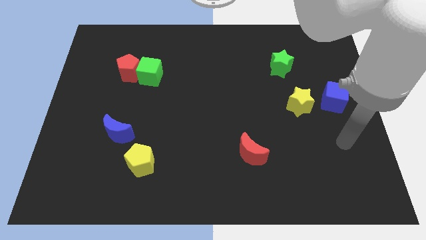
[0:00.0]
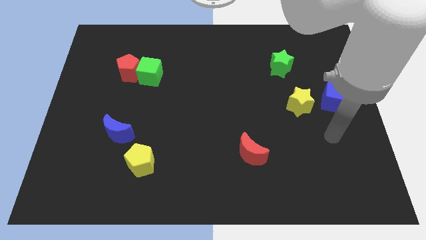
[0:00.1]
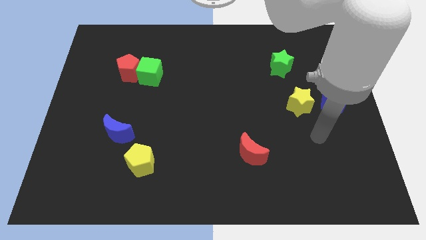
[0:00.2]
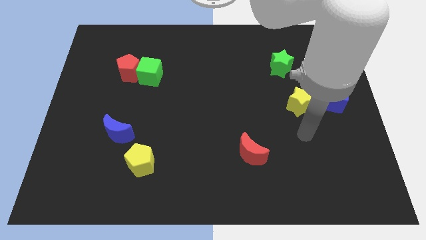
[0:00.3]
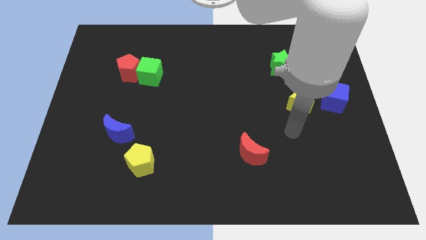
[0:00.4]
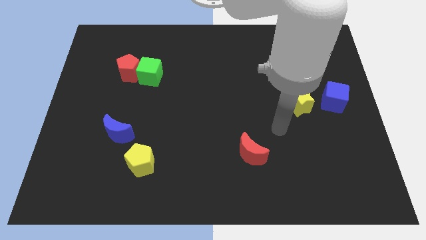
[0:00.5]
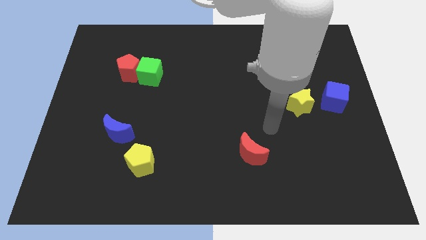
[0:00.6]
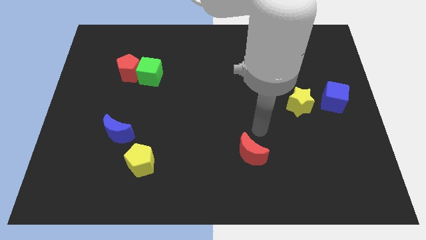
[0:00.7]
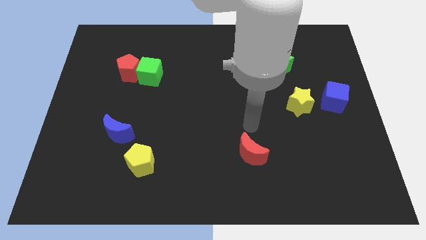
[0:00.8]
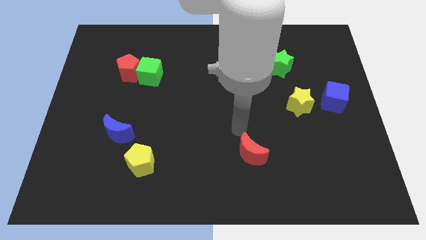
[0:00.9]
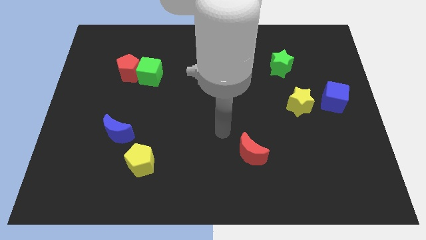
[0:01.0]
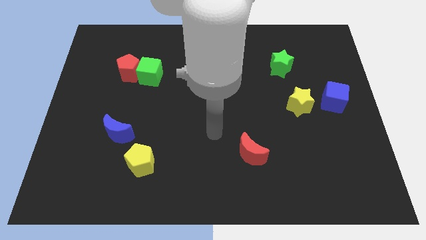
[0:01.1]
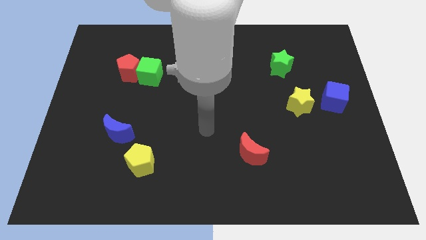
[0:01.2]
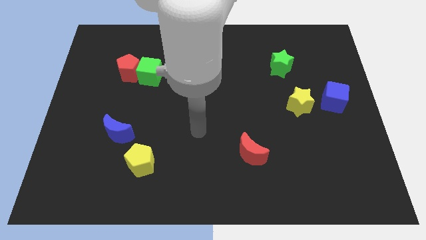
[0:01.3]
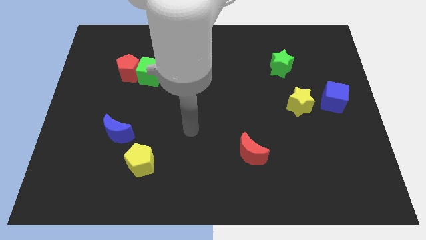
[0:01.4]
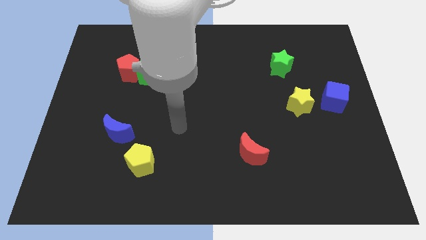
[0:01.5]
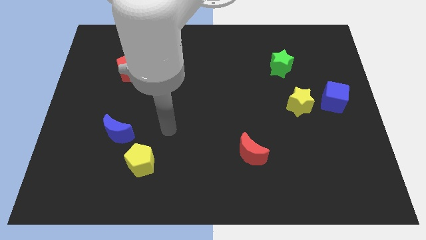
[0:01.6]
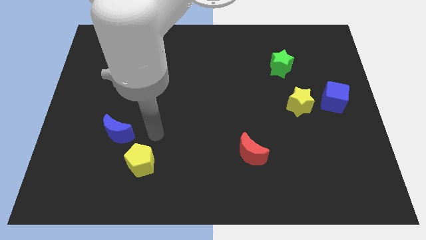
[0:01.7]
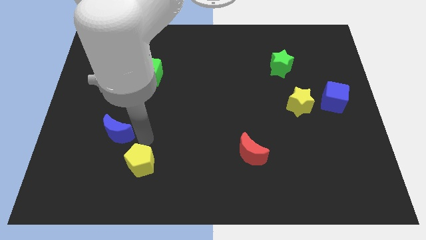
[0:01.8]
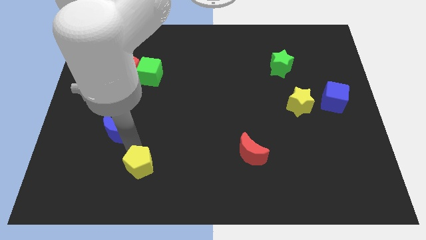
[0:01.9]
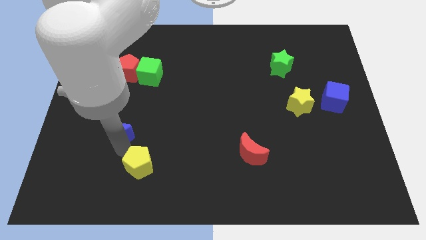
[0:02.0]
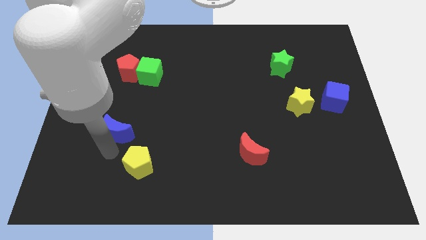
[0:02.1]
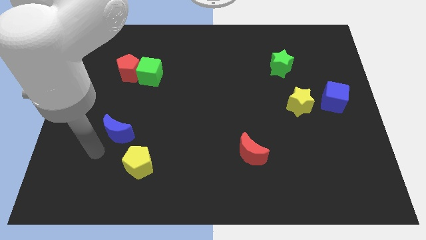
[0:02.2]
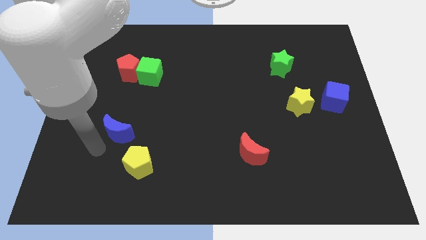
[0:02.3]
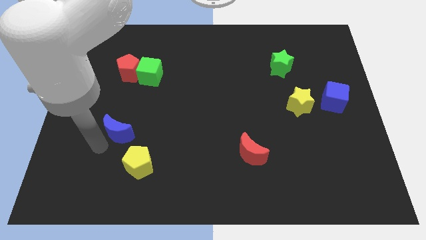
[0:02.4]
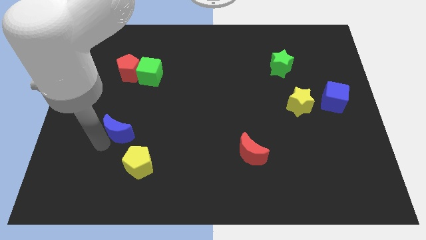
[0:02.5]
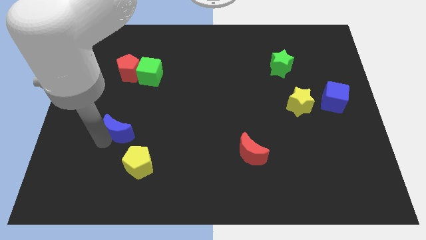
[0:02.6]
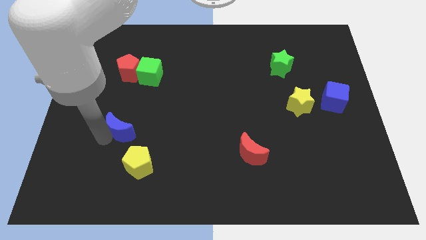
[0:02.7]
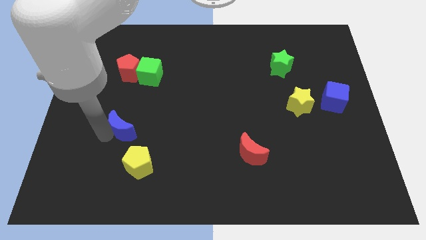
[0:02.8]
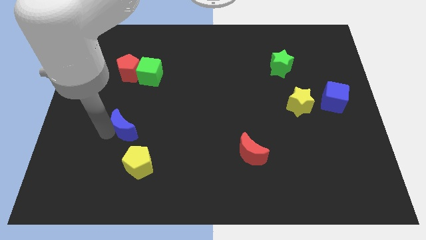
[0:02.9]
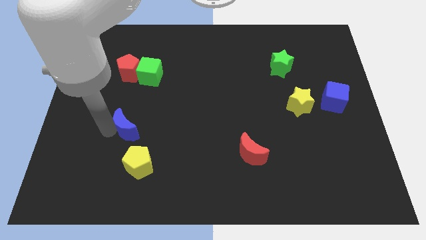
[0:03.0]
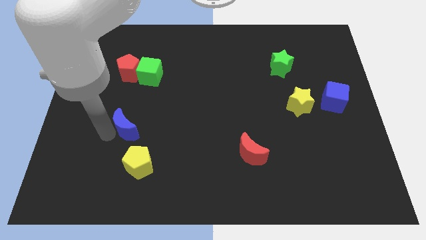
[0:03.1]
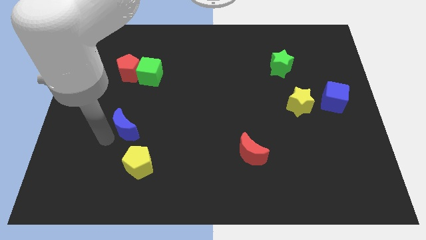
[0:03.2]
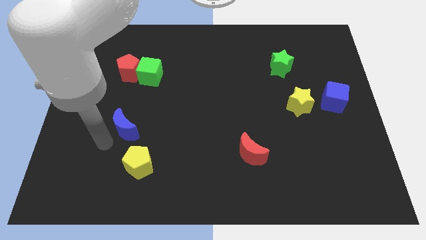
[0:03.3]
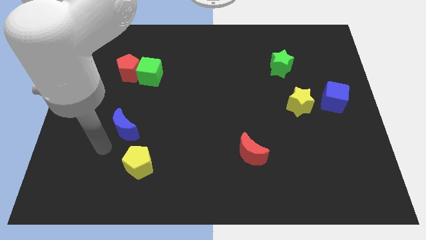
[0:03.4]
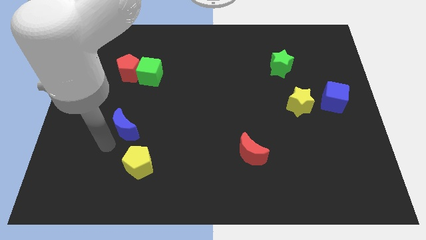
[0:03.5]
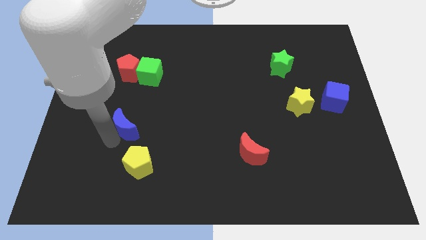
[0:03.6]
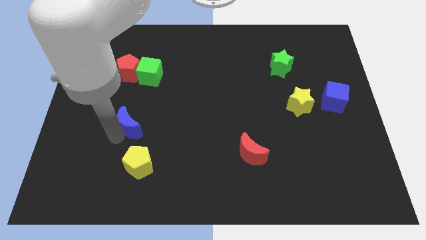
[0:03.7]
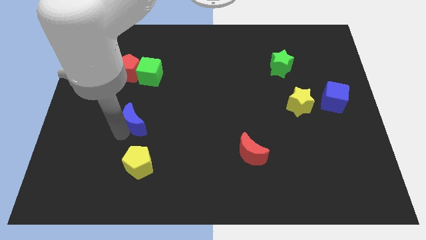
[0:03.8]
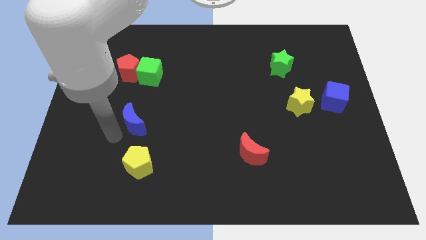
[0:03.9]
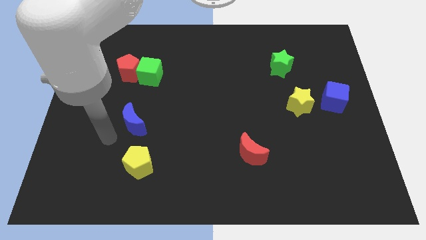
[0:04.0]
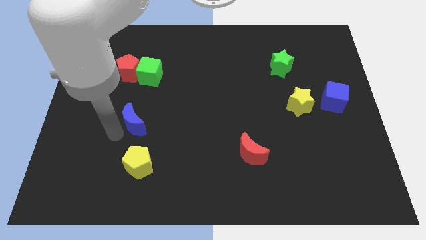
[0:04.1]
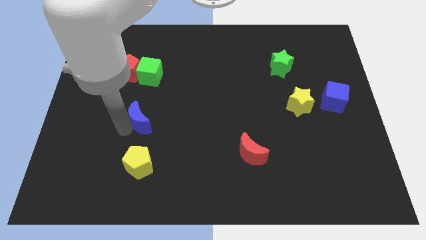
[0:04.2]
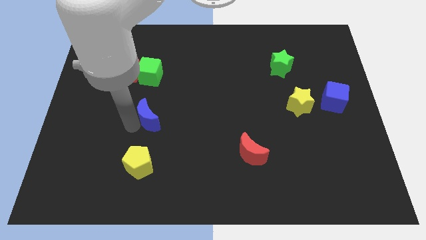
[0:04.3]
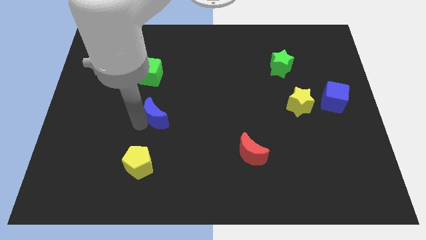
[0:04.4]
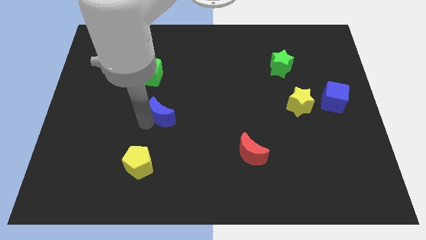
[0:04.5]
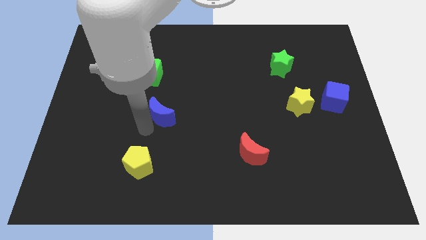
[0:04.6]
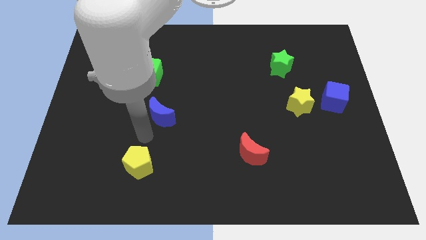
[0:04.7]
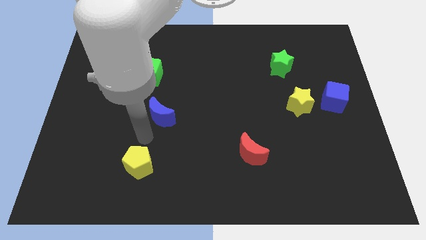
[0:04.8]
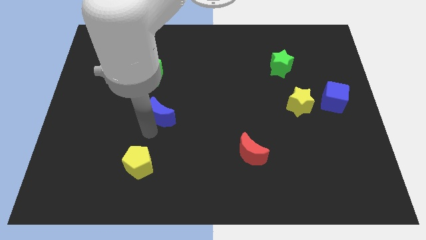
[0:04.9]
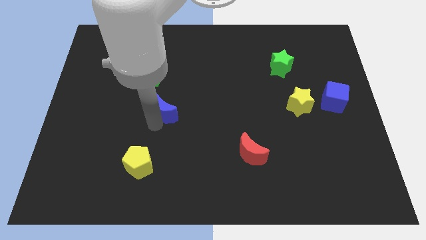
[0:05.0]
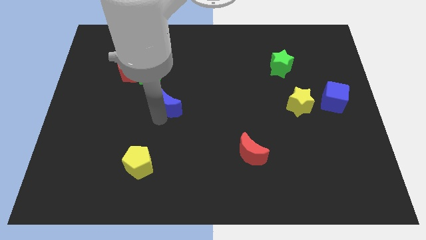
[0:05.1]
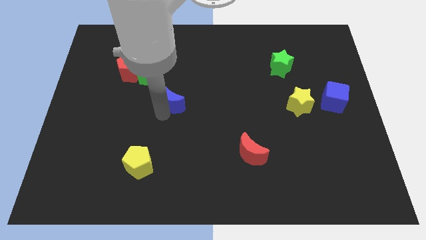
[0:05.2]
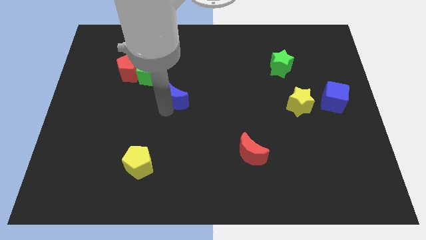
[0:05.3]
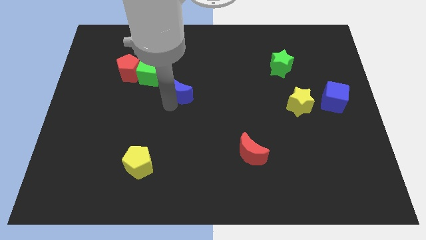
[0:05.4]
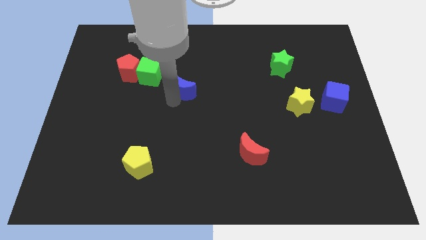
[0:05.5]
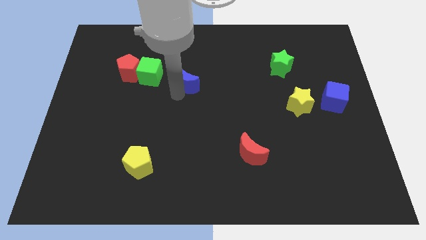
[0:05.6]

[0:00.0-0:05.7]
push the blue moon up and to the right diagonally

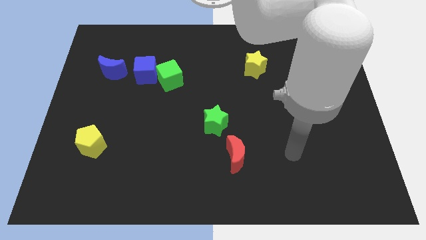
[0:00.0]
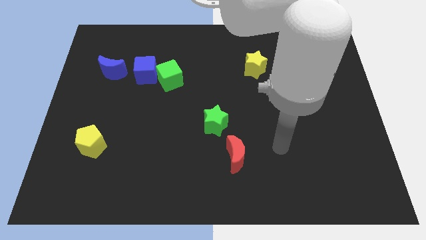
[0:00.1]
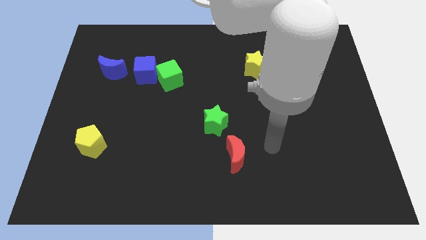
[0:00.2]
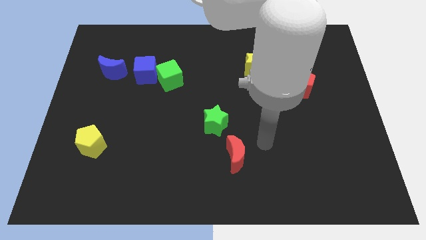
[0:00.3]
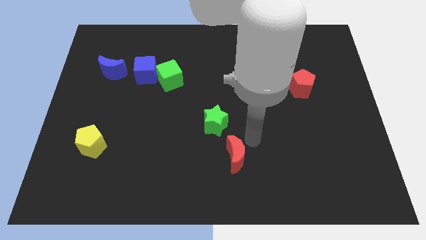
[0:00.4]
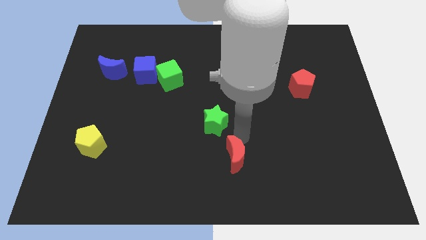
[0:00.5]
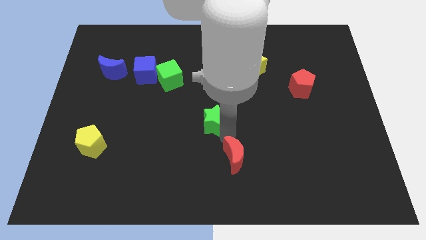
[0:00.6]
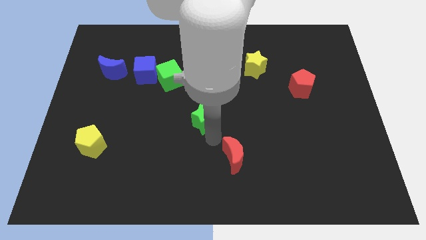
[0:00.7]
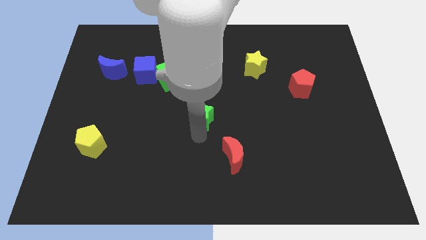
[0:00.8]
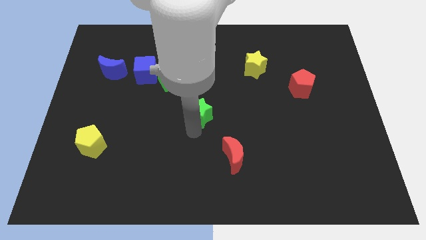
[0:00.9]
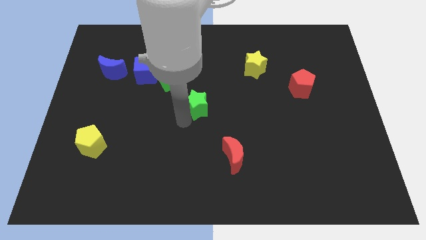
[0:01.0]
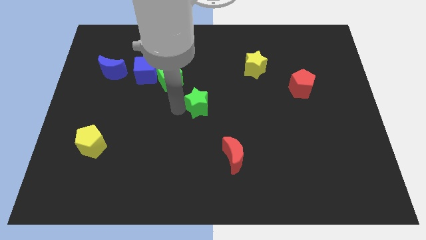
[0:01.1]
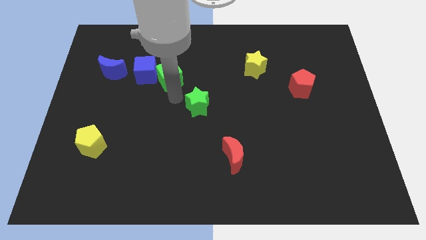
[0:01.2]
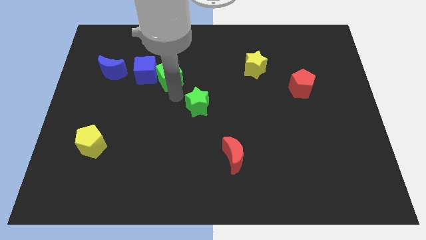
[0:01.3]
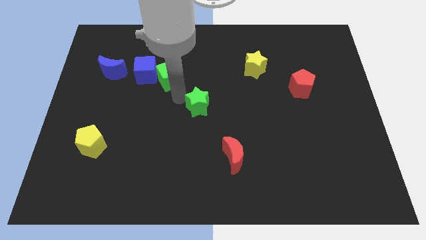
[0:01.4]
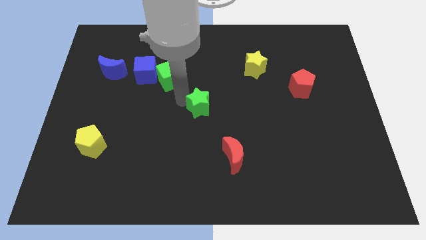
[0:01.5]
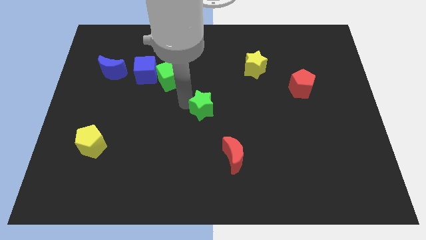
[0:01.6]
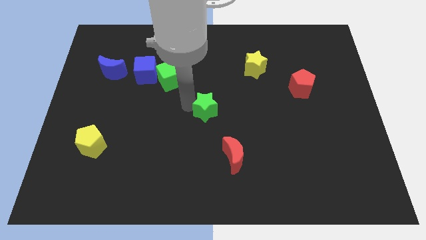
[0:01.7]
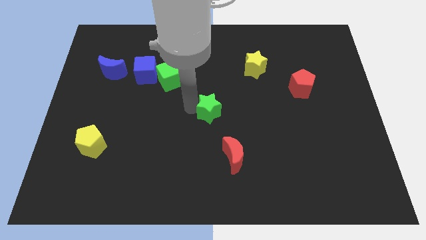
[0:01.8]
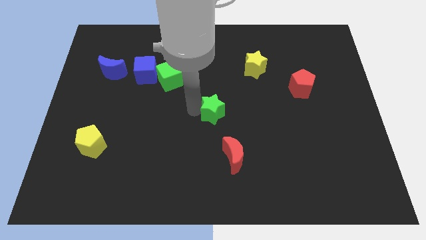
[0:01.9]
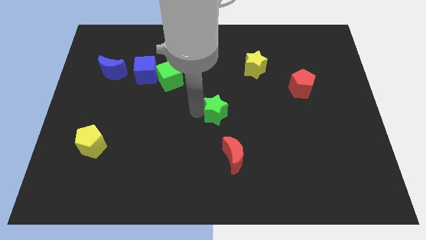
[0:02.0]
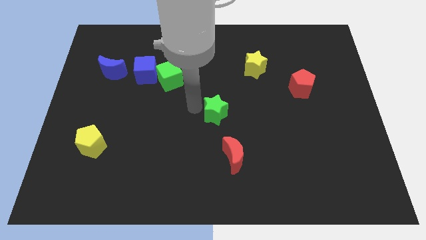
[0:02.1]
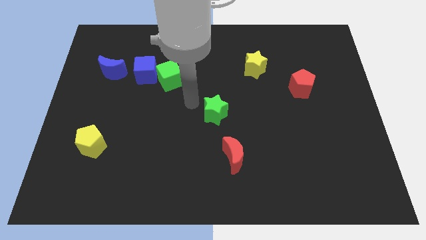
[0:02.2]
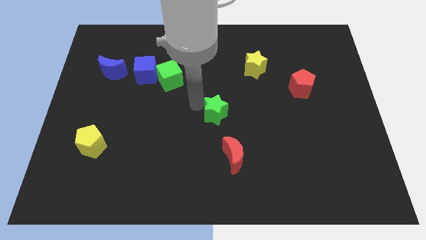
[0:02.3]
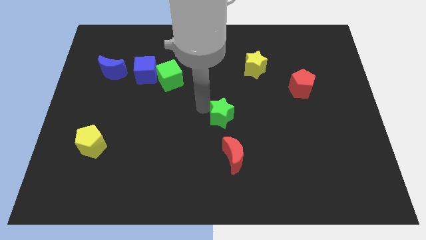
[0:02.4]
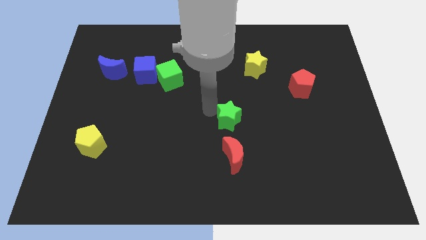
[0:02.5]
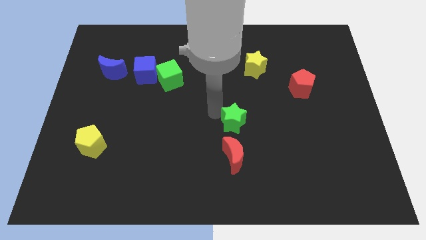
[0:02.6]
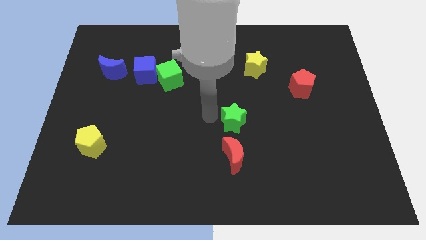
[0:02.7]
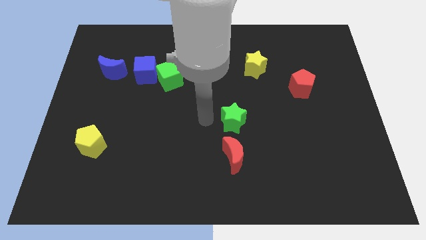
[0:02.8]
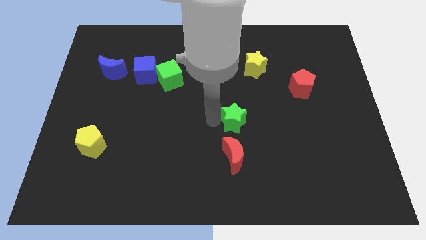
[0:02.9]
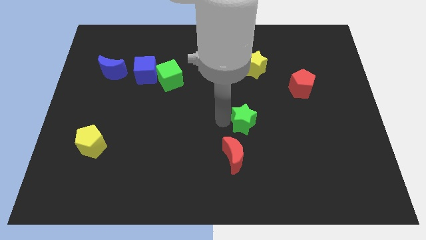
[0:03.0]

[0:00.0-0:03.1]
push the green star right somewhat
